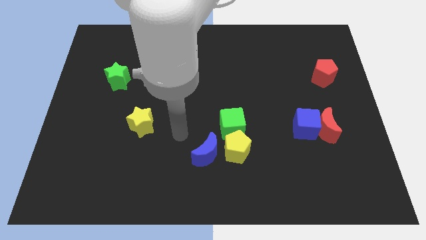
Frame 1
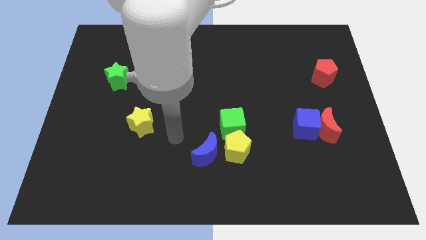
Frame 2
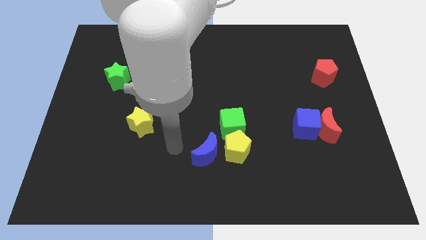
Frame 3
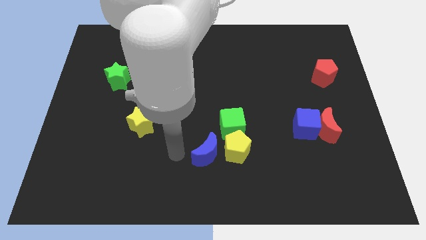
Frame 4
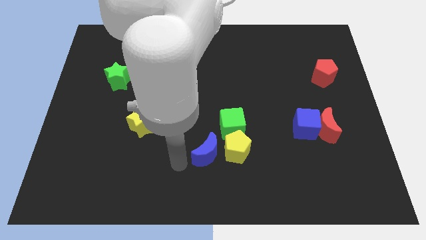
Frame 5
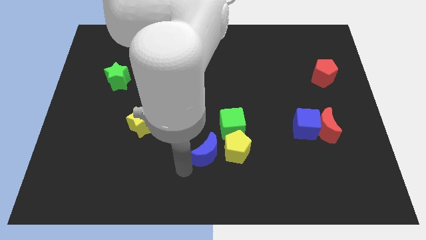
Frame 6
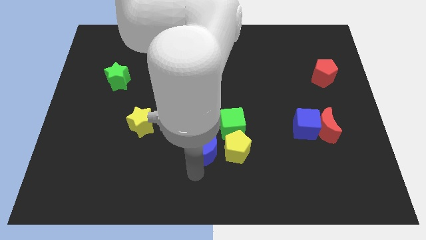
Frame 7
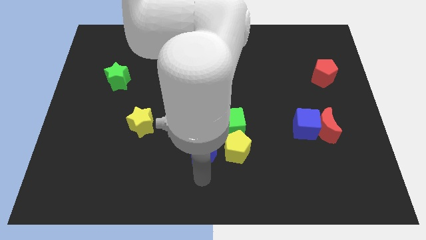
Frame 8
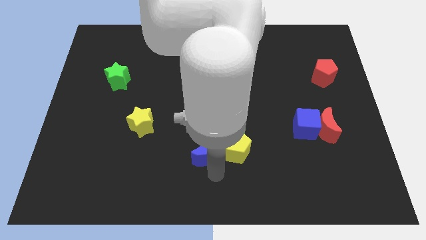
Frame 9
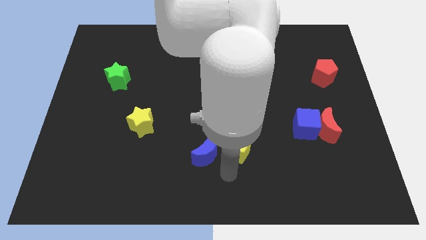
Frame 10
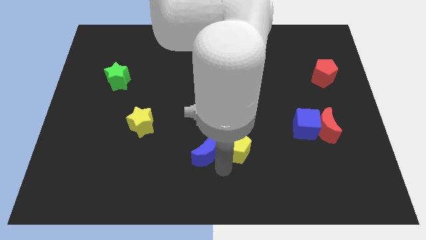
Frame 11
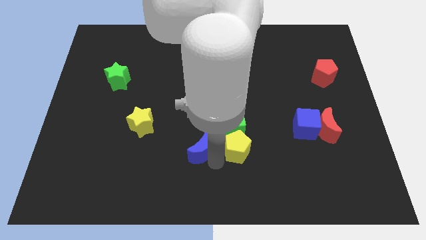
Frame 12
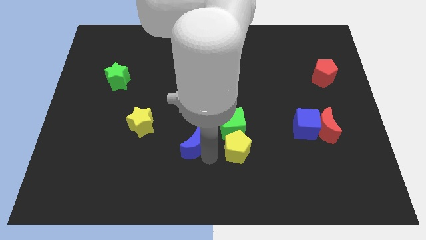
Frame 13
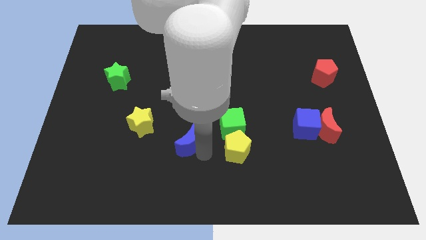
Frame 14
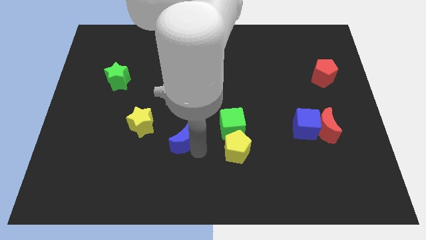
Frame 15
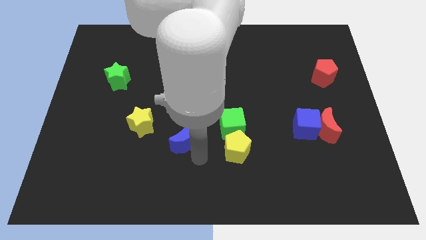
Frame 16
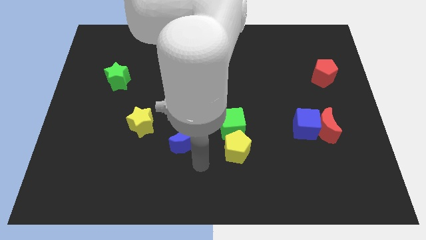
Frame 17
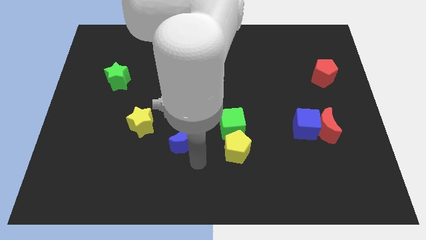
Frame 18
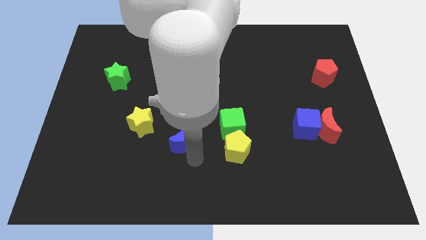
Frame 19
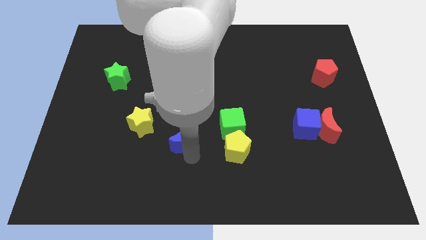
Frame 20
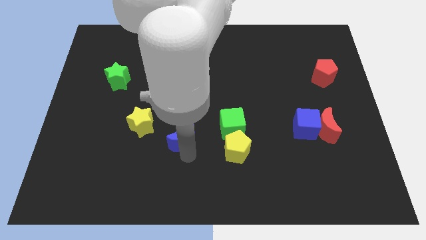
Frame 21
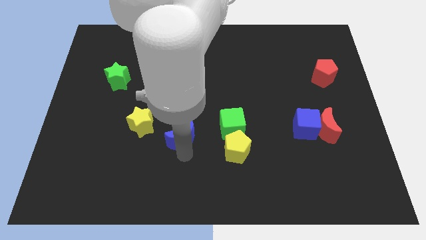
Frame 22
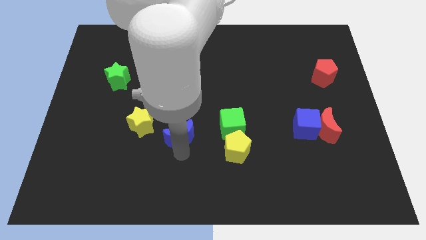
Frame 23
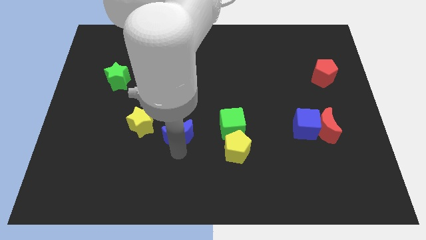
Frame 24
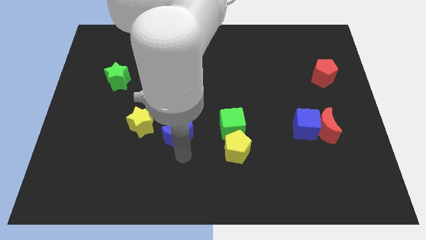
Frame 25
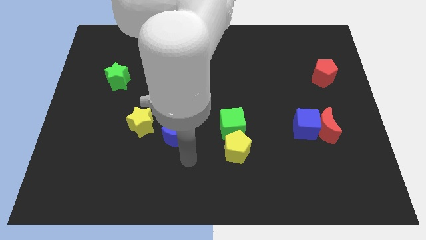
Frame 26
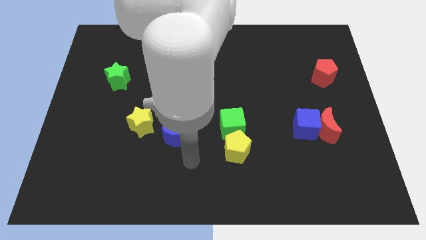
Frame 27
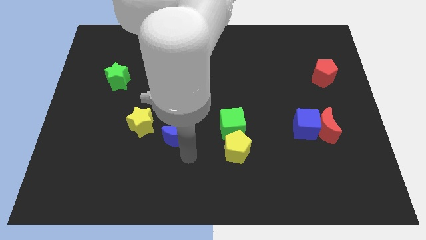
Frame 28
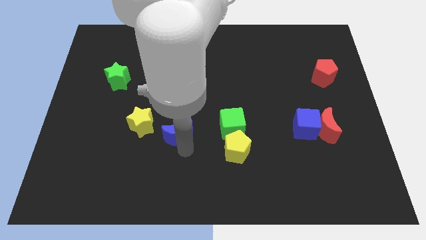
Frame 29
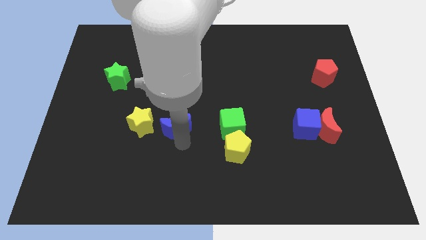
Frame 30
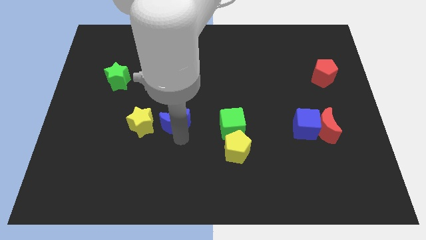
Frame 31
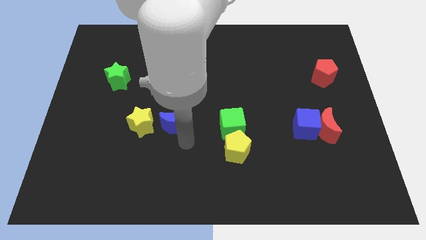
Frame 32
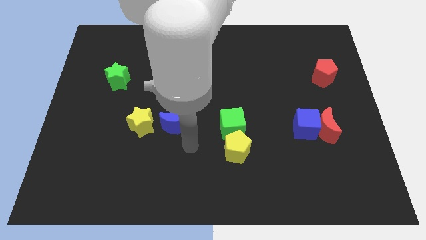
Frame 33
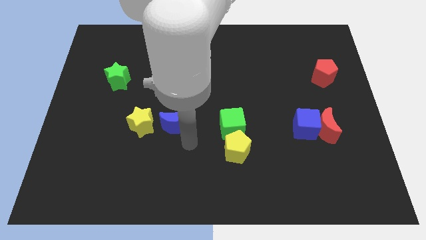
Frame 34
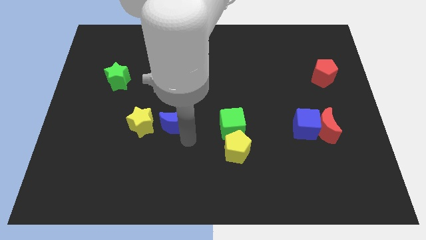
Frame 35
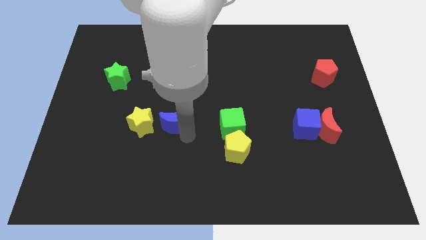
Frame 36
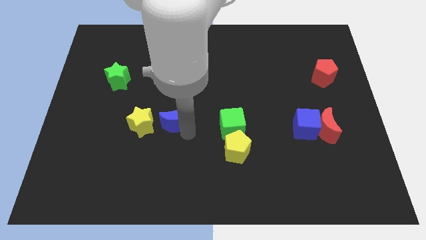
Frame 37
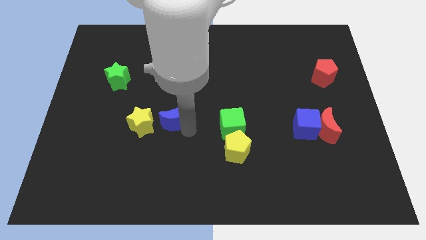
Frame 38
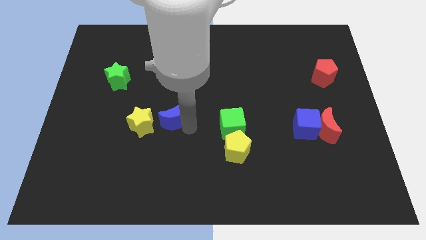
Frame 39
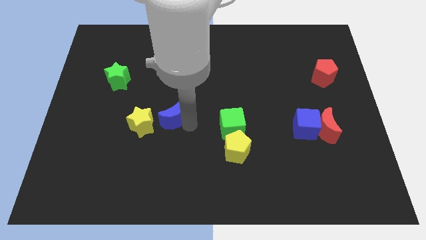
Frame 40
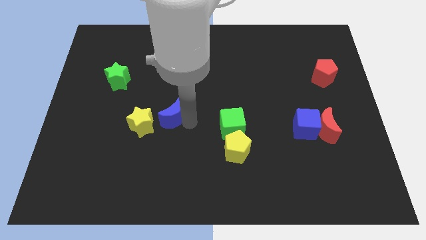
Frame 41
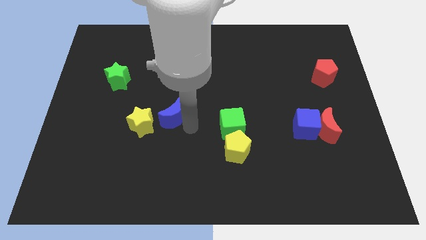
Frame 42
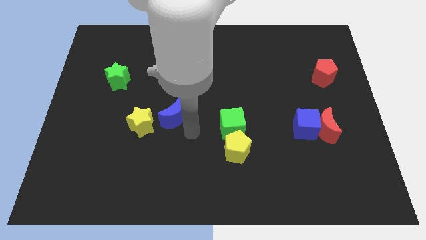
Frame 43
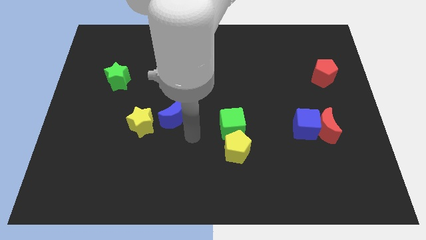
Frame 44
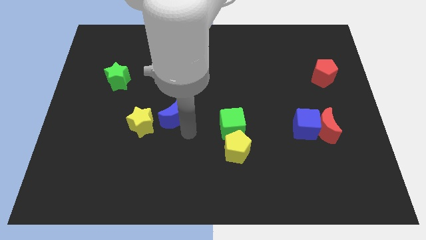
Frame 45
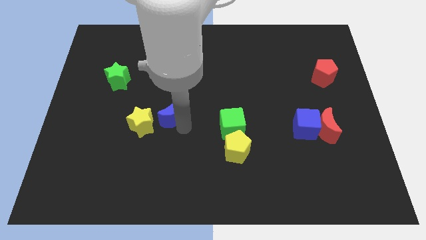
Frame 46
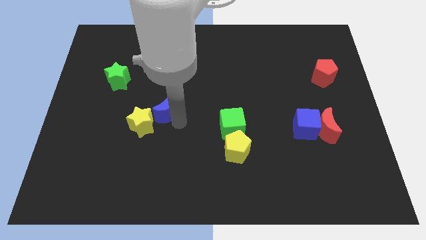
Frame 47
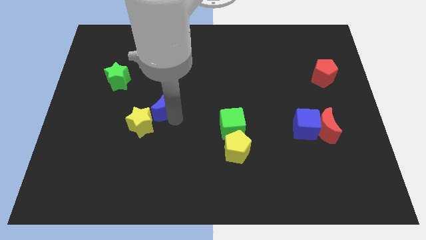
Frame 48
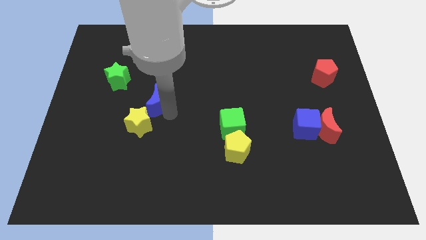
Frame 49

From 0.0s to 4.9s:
move the blue moon above the yellow star

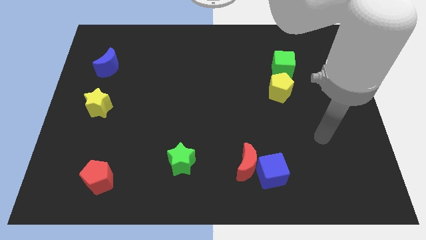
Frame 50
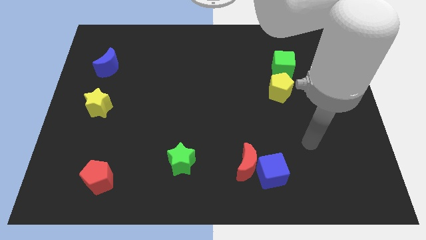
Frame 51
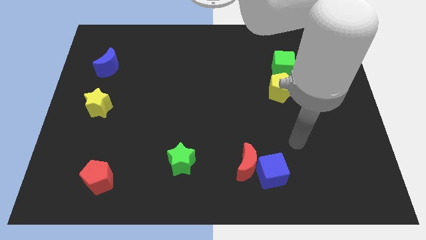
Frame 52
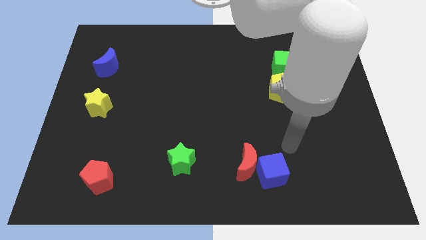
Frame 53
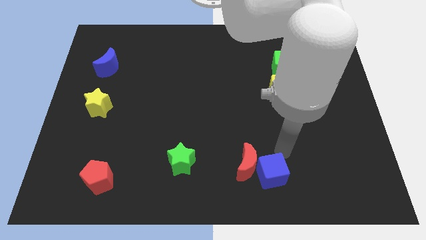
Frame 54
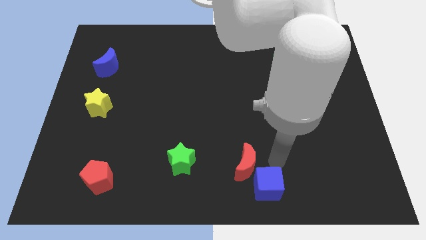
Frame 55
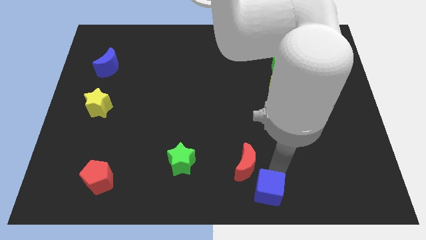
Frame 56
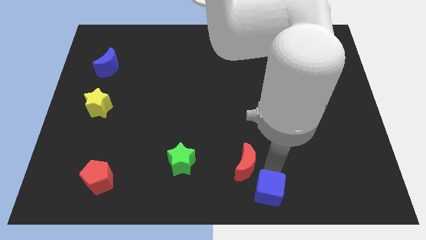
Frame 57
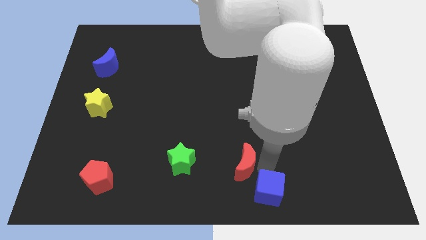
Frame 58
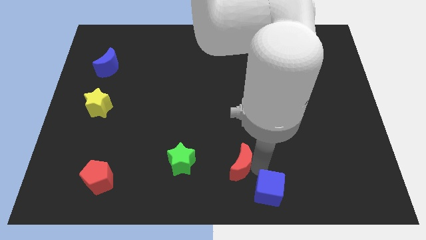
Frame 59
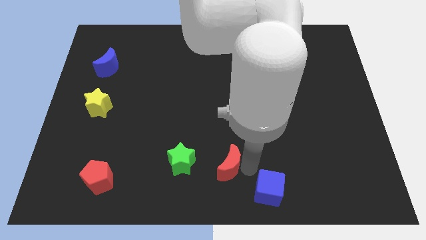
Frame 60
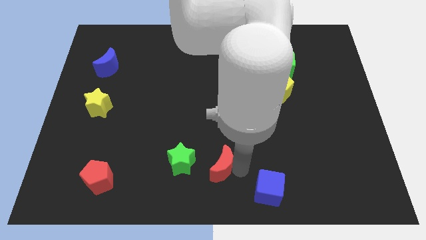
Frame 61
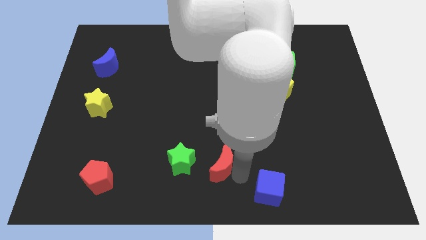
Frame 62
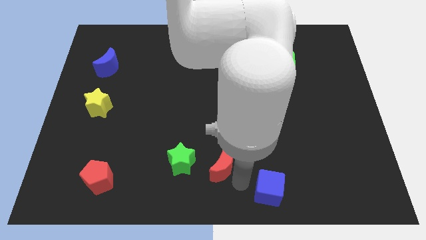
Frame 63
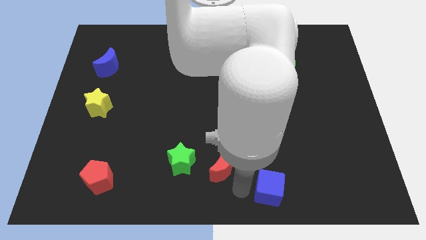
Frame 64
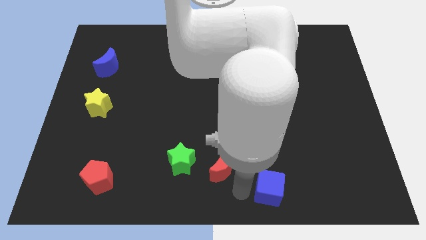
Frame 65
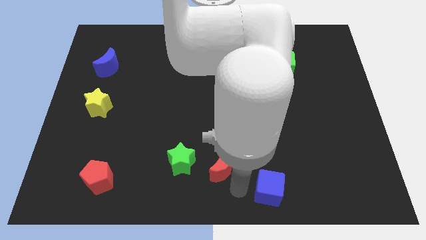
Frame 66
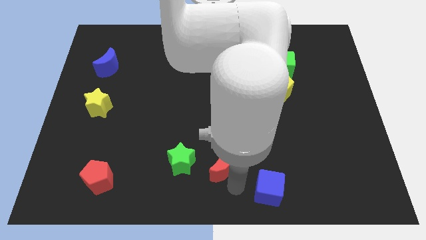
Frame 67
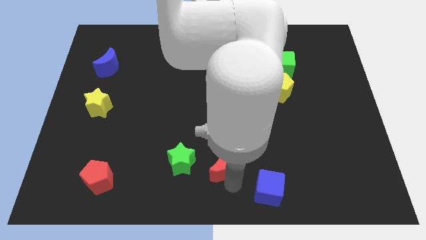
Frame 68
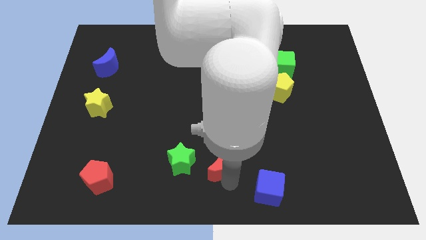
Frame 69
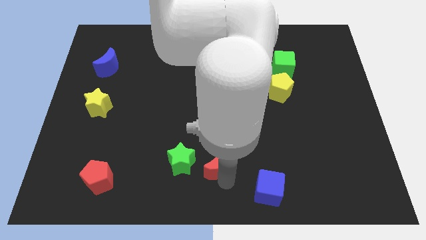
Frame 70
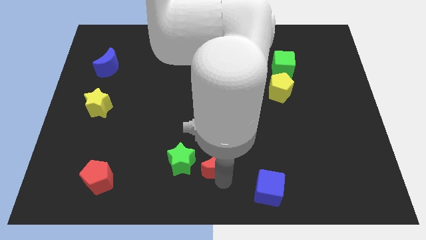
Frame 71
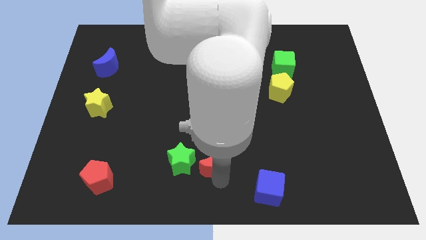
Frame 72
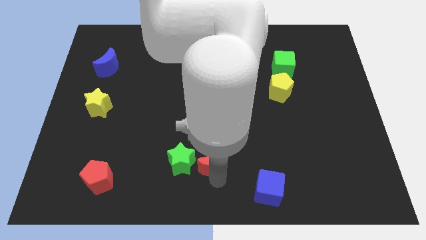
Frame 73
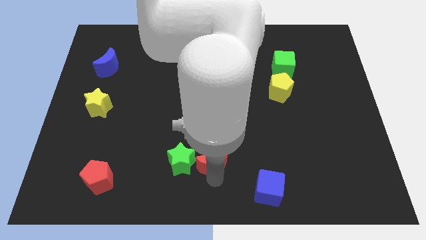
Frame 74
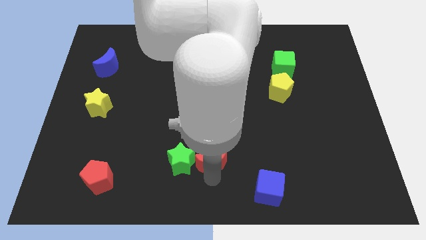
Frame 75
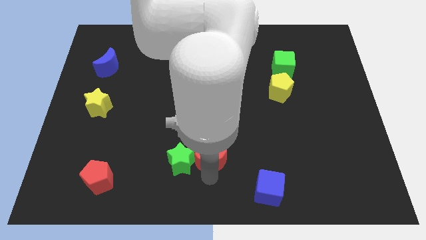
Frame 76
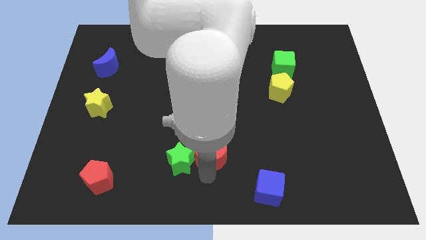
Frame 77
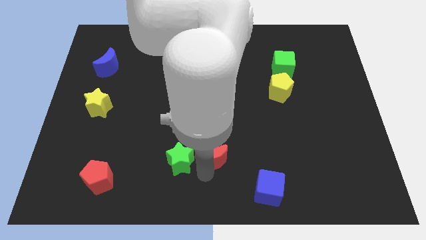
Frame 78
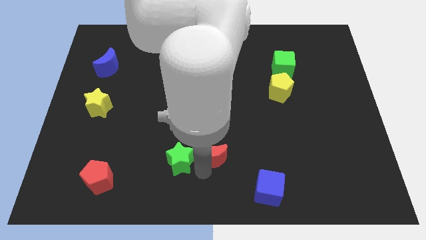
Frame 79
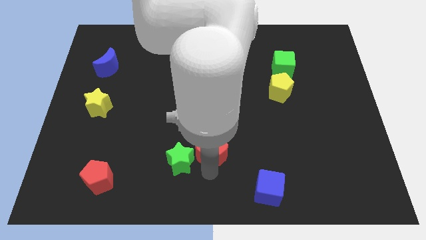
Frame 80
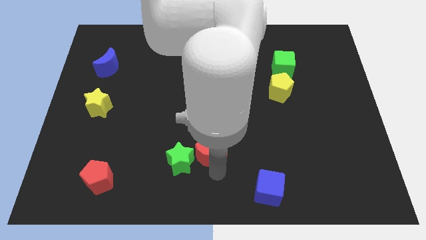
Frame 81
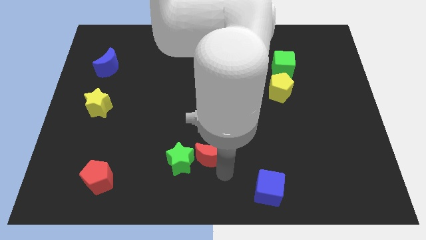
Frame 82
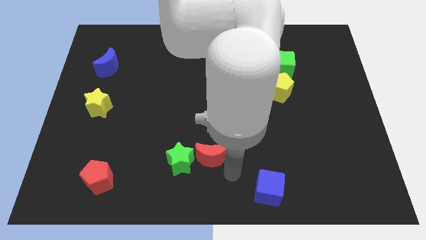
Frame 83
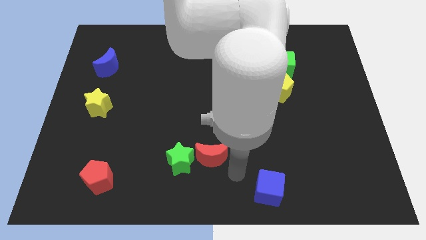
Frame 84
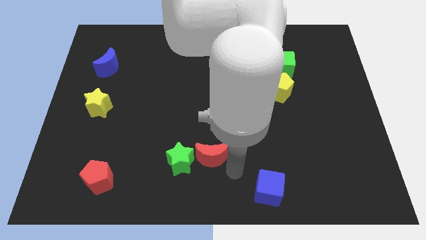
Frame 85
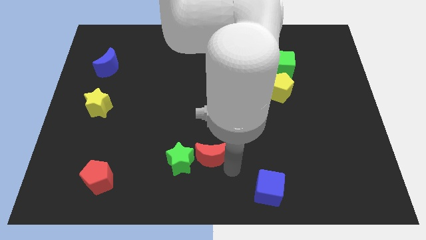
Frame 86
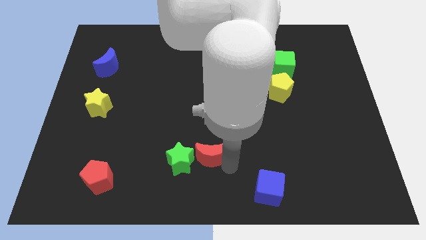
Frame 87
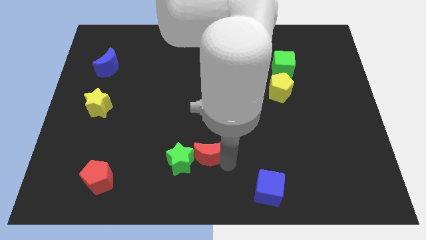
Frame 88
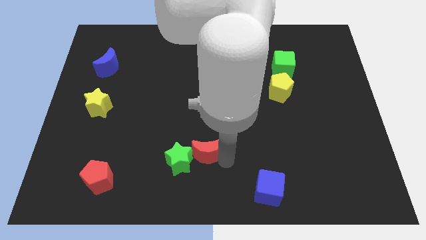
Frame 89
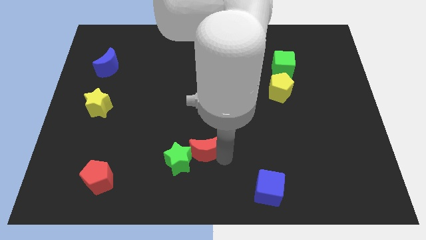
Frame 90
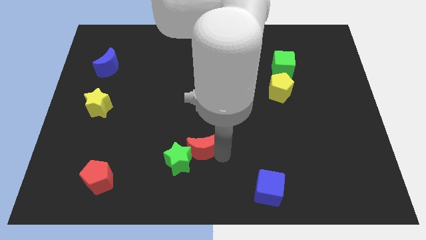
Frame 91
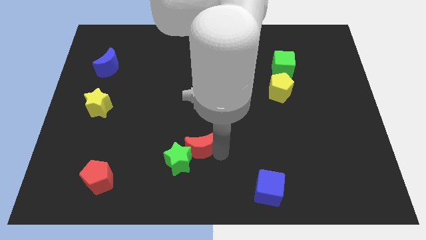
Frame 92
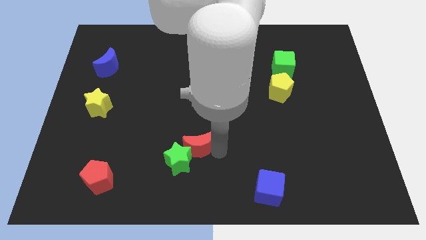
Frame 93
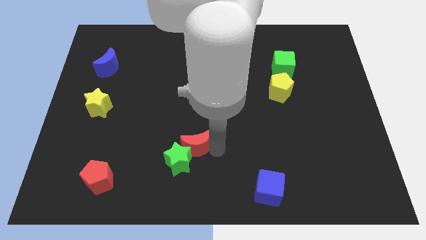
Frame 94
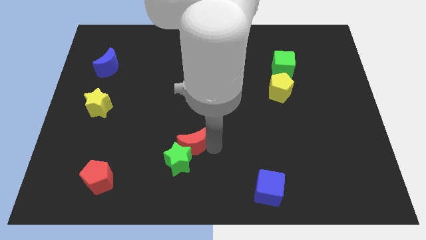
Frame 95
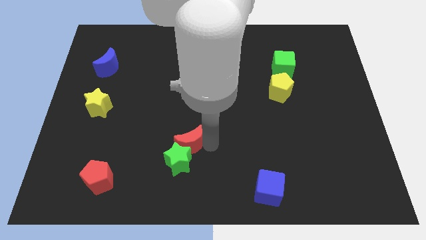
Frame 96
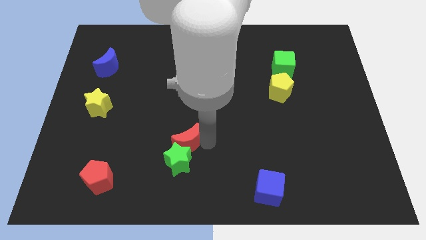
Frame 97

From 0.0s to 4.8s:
move the red moon to the top left side of the green star
